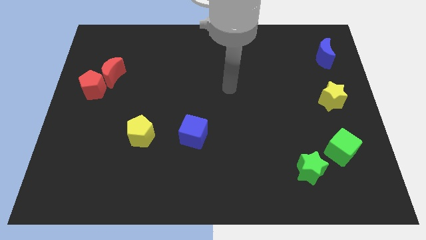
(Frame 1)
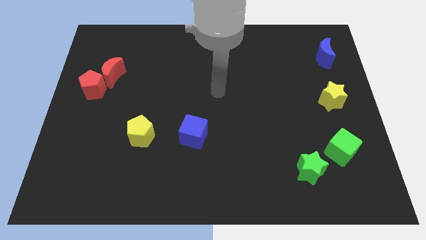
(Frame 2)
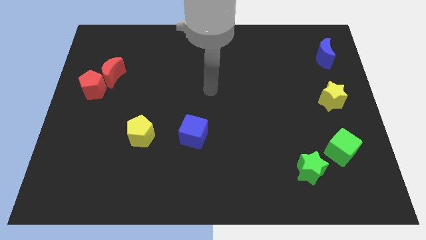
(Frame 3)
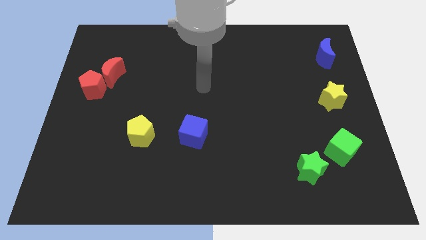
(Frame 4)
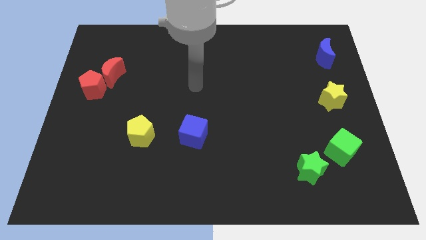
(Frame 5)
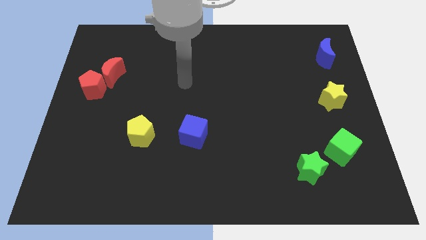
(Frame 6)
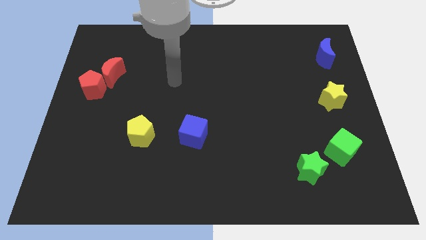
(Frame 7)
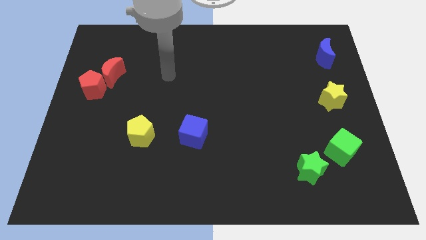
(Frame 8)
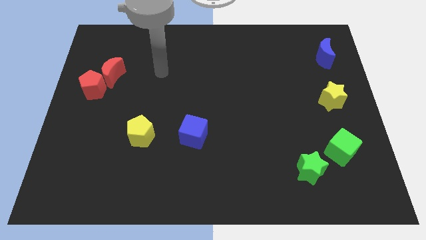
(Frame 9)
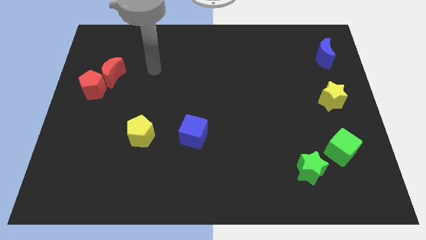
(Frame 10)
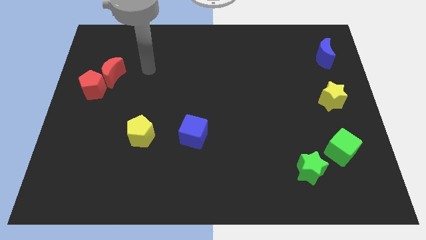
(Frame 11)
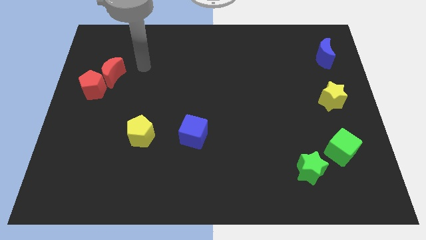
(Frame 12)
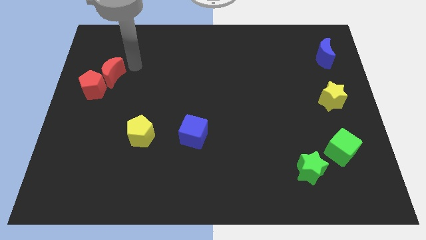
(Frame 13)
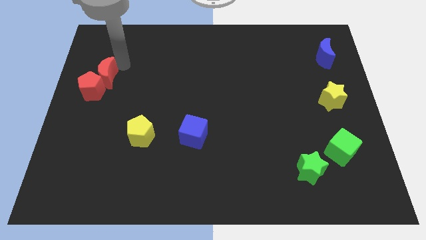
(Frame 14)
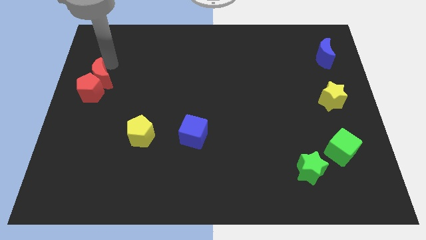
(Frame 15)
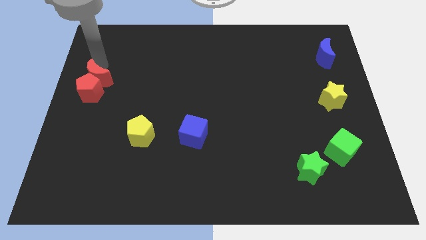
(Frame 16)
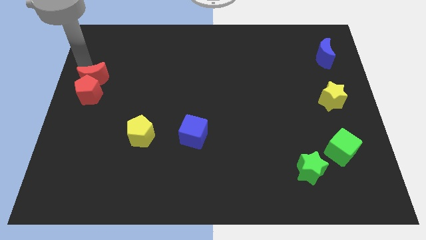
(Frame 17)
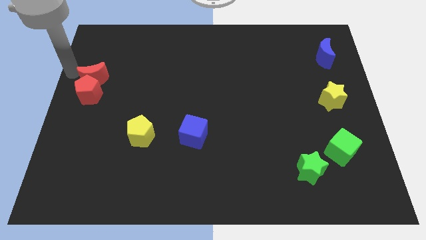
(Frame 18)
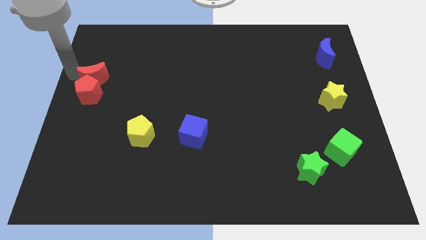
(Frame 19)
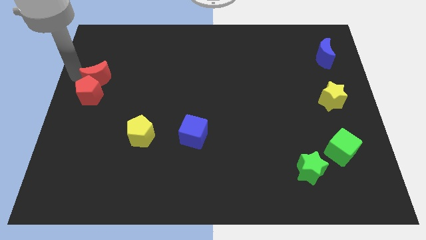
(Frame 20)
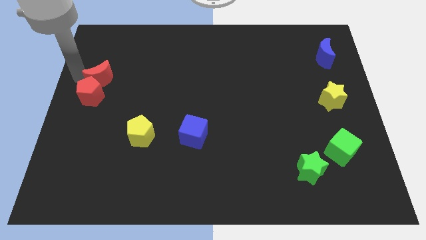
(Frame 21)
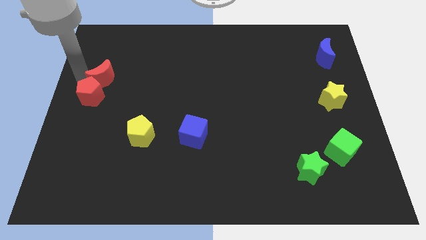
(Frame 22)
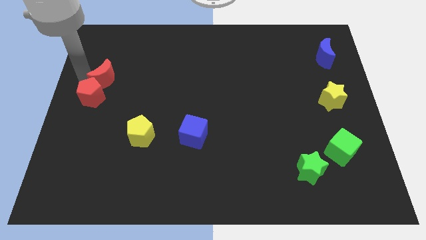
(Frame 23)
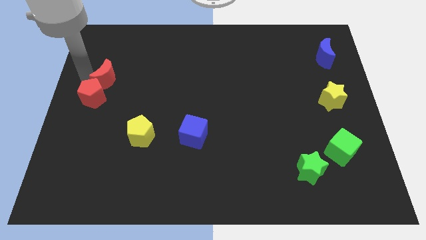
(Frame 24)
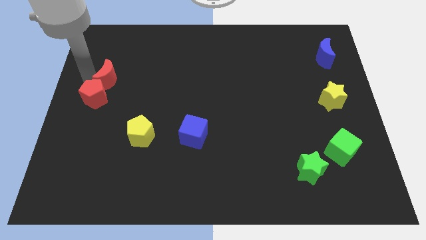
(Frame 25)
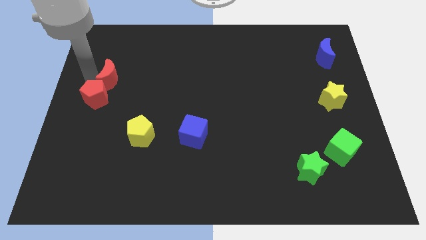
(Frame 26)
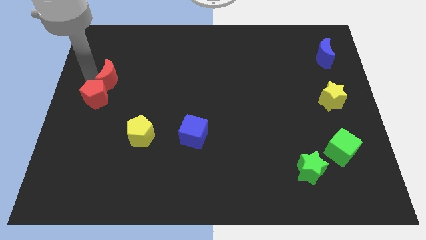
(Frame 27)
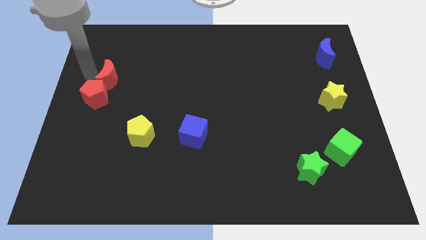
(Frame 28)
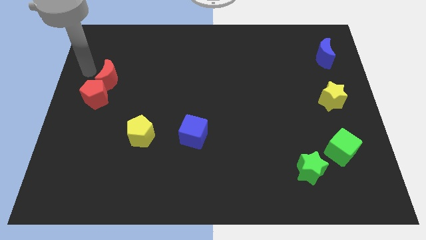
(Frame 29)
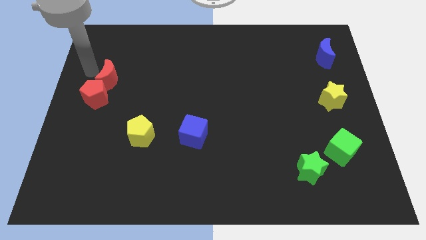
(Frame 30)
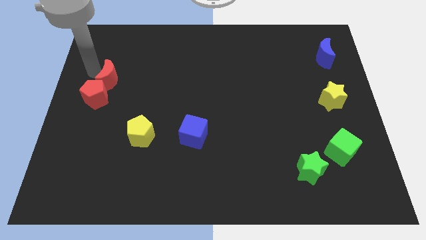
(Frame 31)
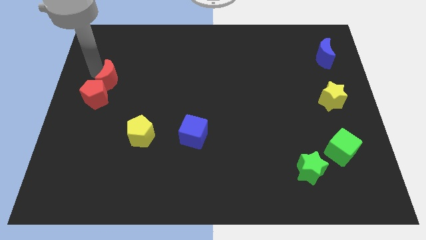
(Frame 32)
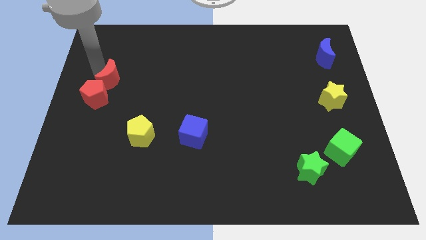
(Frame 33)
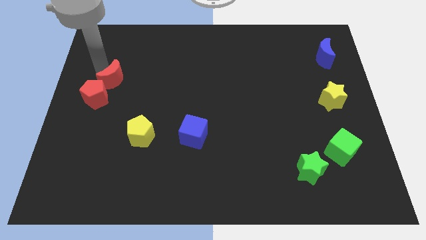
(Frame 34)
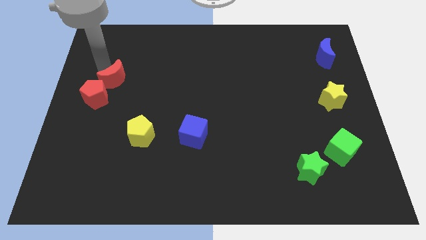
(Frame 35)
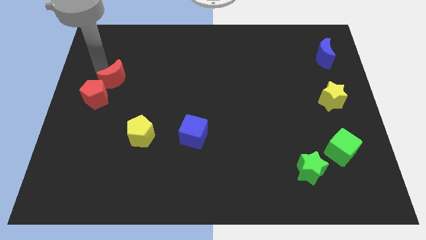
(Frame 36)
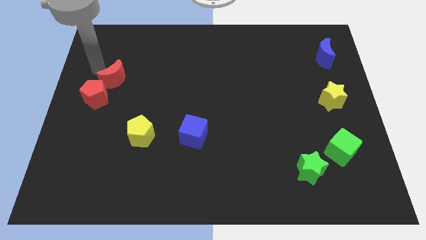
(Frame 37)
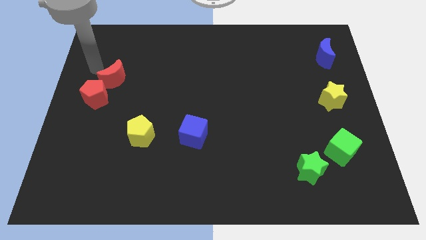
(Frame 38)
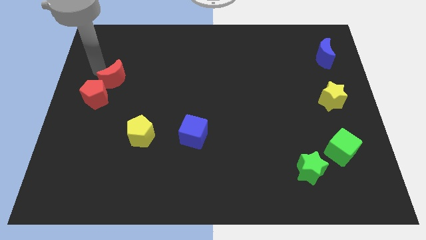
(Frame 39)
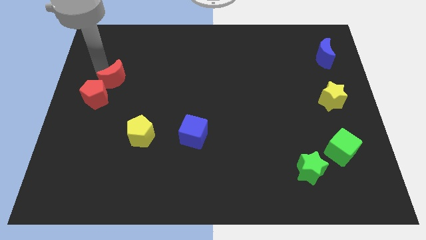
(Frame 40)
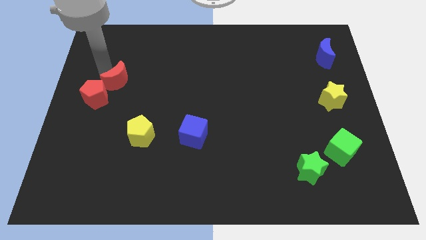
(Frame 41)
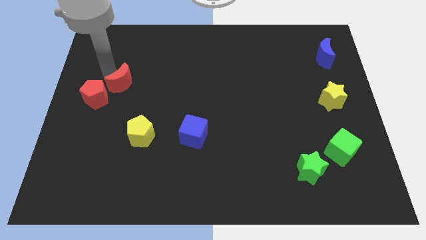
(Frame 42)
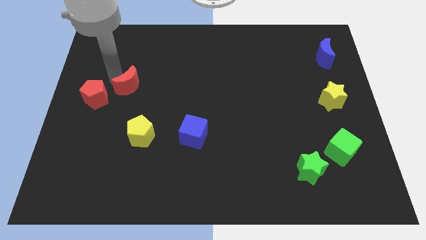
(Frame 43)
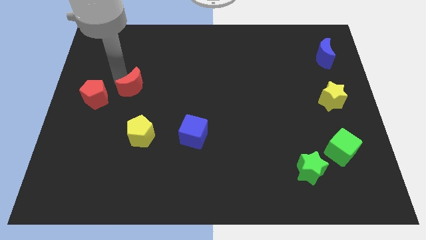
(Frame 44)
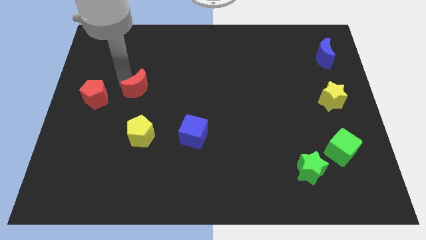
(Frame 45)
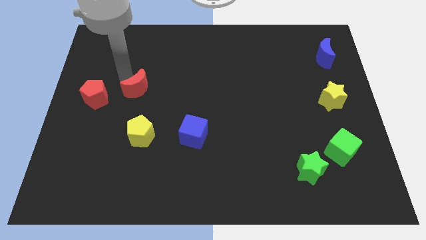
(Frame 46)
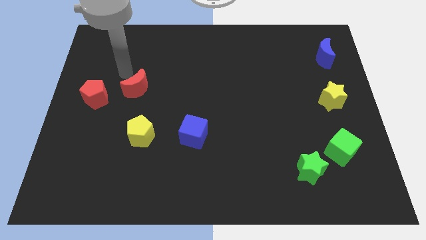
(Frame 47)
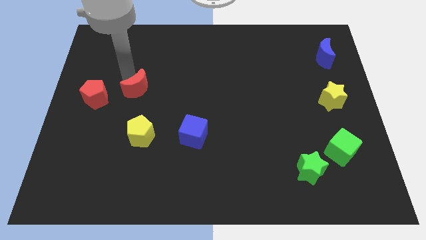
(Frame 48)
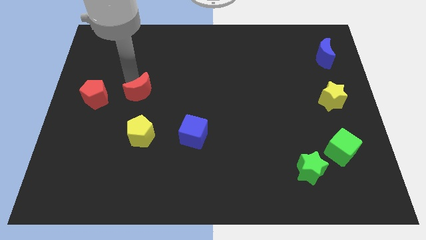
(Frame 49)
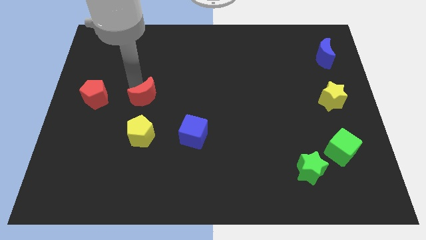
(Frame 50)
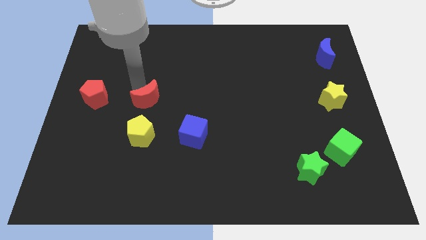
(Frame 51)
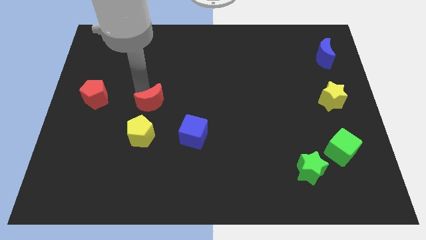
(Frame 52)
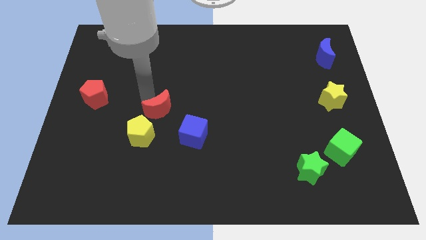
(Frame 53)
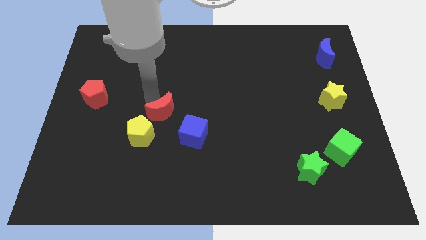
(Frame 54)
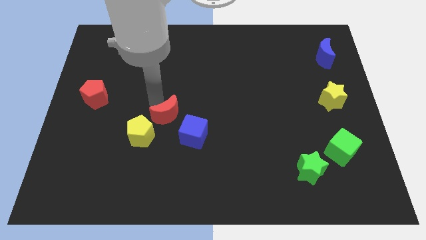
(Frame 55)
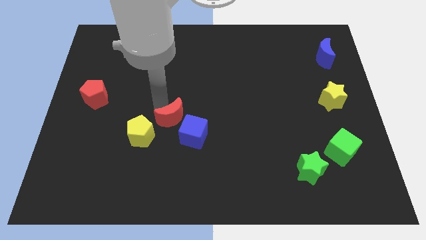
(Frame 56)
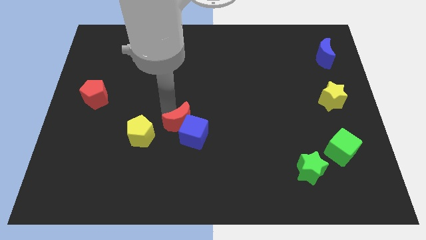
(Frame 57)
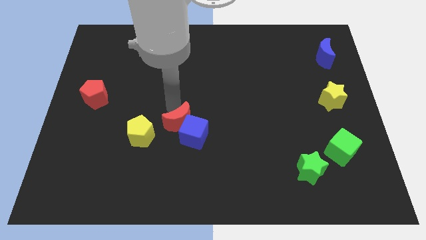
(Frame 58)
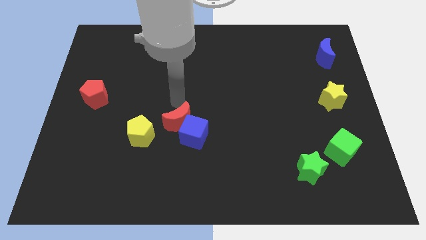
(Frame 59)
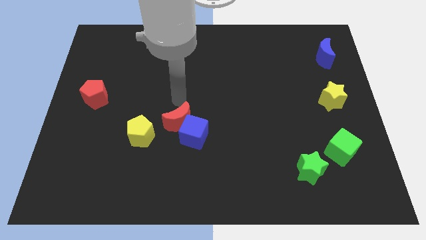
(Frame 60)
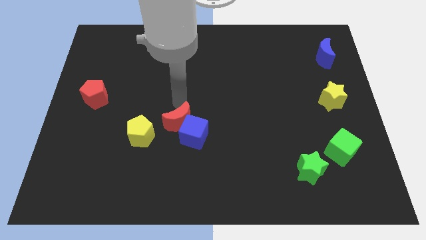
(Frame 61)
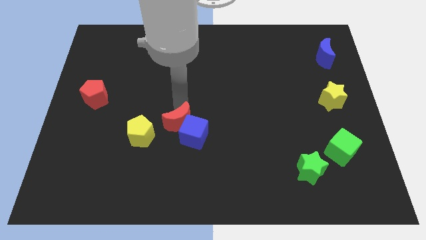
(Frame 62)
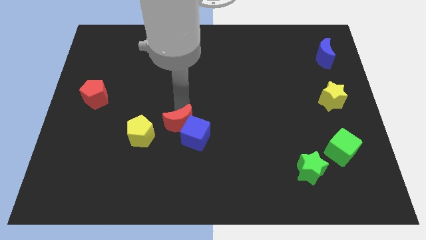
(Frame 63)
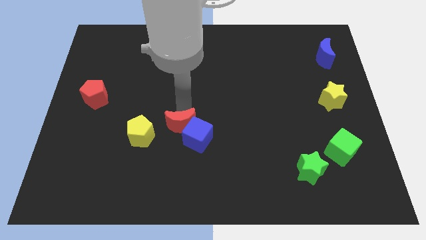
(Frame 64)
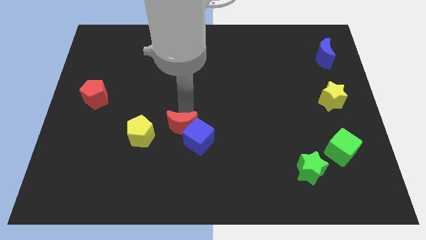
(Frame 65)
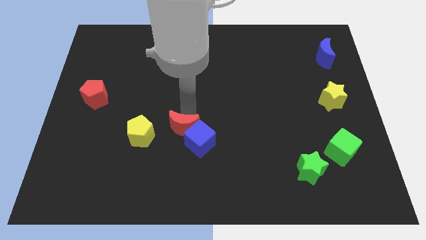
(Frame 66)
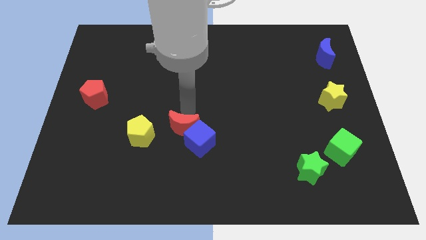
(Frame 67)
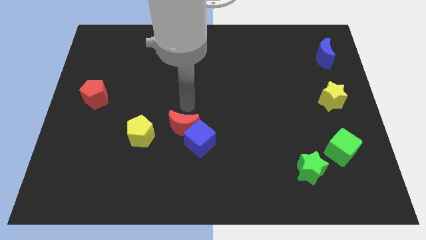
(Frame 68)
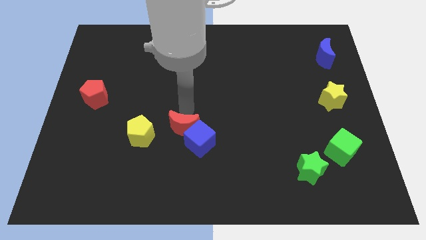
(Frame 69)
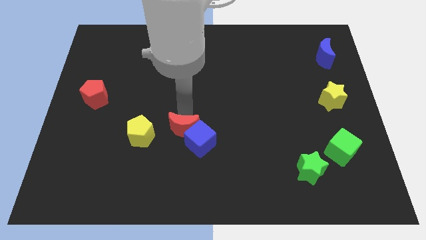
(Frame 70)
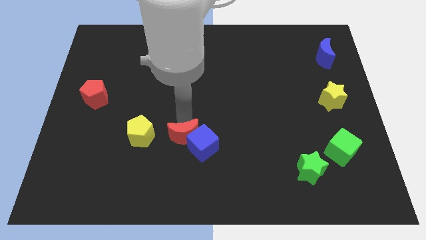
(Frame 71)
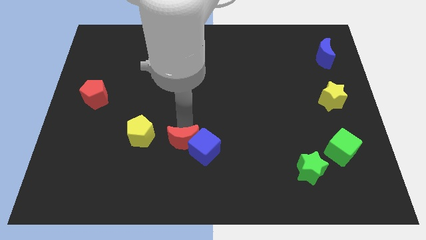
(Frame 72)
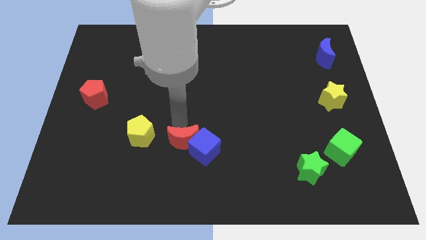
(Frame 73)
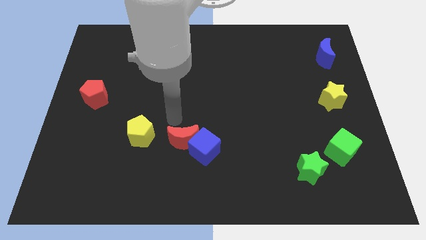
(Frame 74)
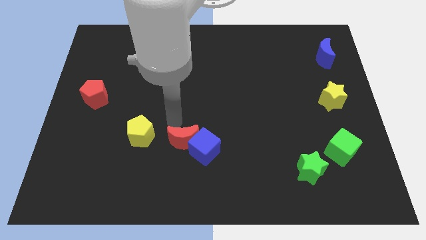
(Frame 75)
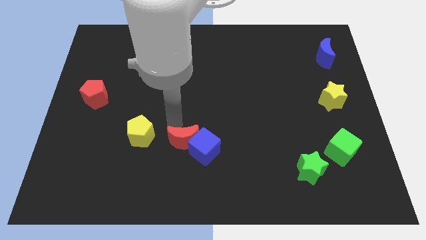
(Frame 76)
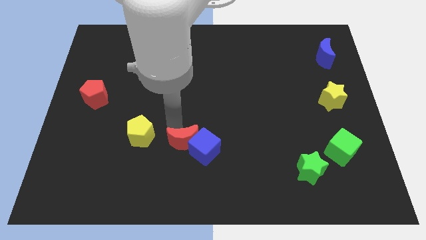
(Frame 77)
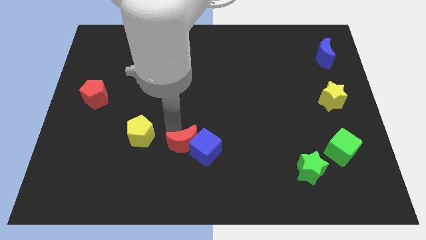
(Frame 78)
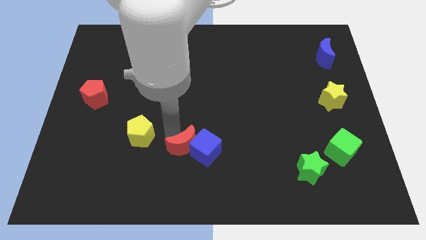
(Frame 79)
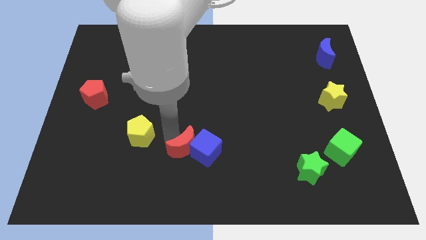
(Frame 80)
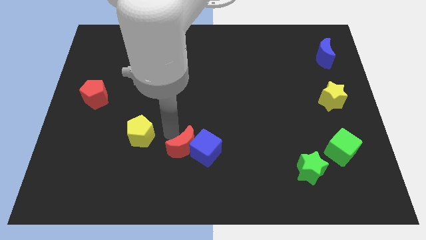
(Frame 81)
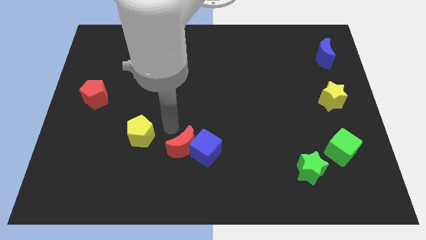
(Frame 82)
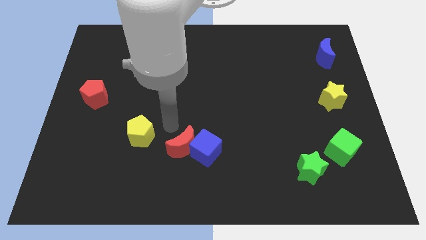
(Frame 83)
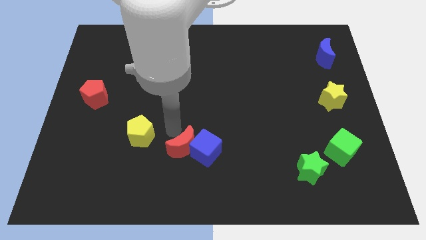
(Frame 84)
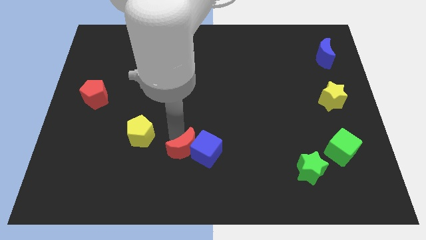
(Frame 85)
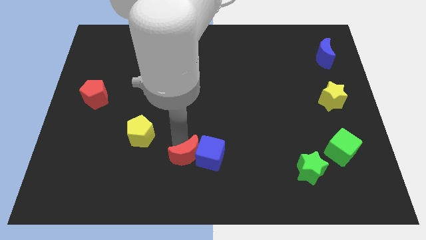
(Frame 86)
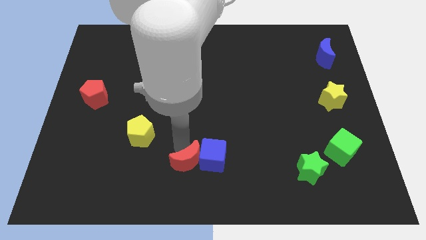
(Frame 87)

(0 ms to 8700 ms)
move the red moon to the bottom side
